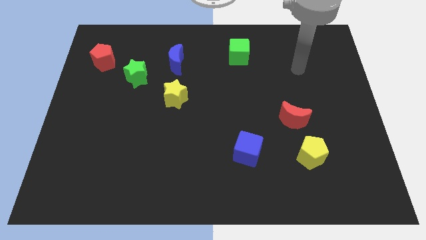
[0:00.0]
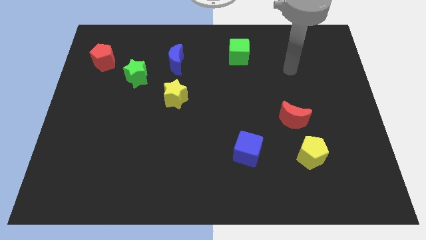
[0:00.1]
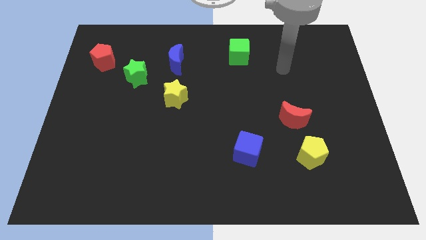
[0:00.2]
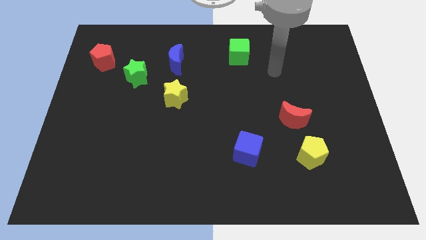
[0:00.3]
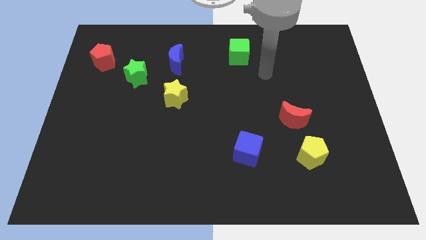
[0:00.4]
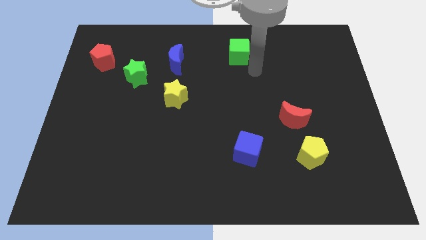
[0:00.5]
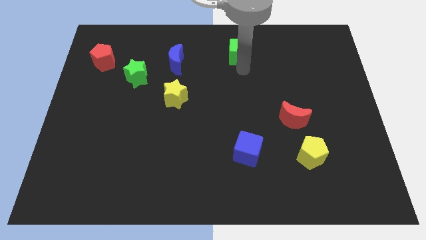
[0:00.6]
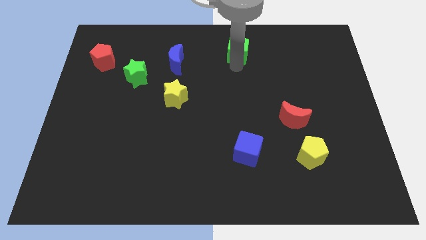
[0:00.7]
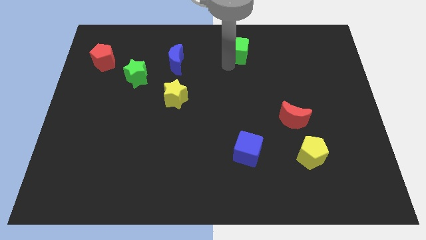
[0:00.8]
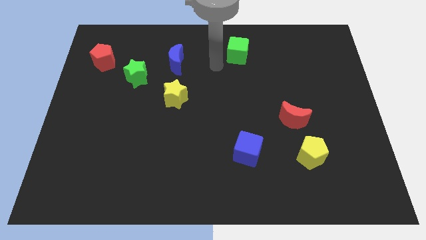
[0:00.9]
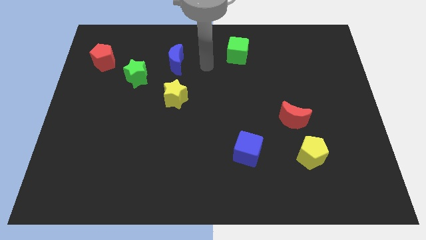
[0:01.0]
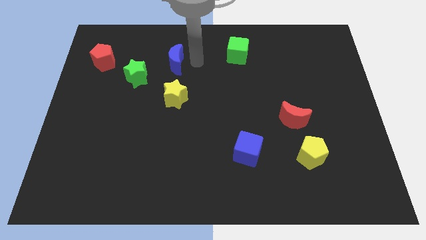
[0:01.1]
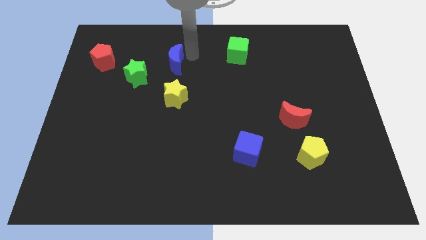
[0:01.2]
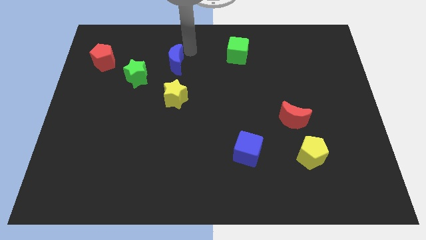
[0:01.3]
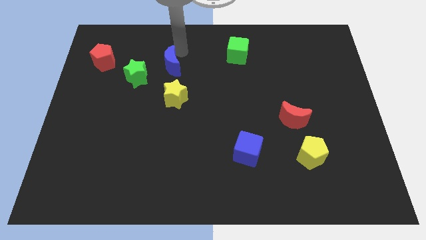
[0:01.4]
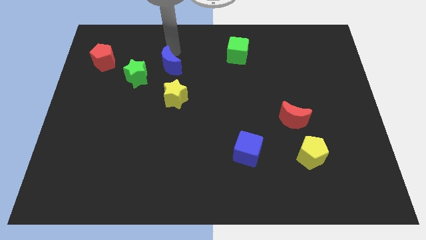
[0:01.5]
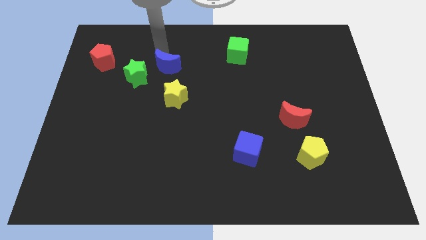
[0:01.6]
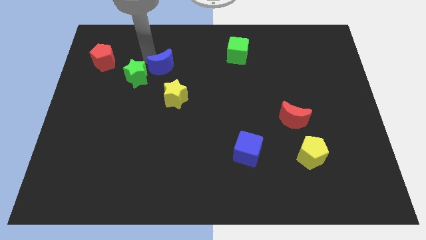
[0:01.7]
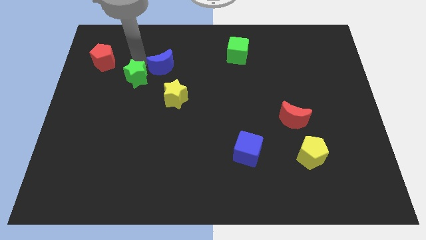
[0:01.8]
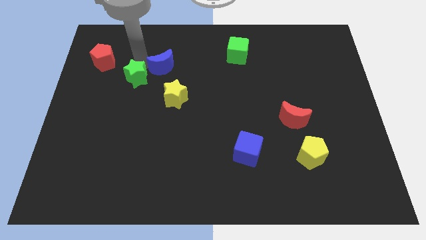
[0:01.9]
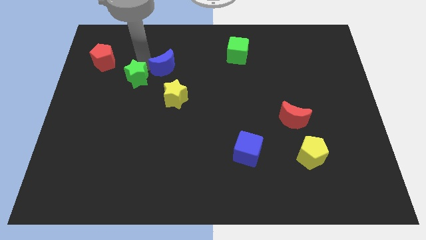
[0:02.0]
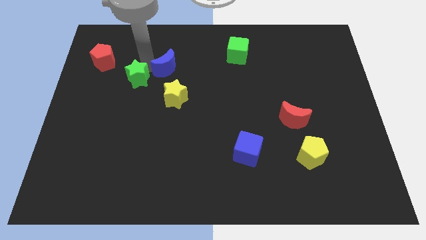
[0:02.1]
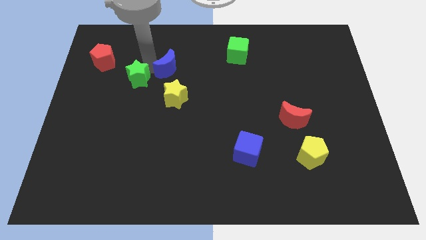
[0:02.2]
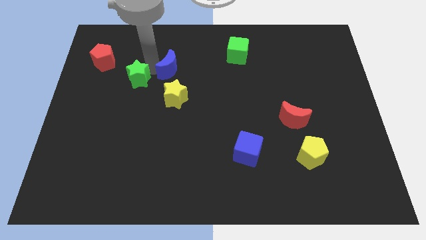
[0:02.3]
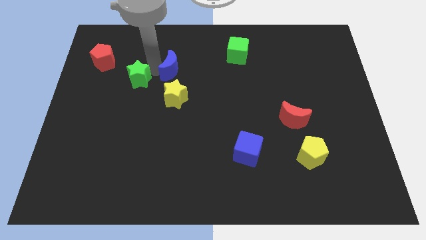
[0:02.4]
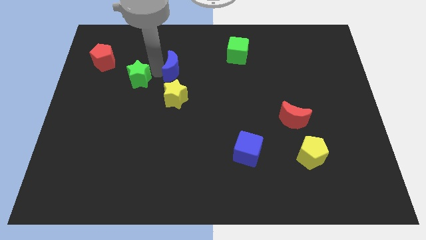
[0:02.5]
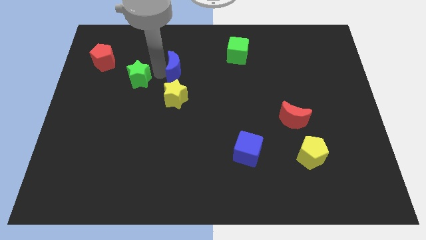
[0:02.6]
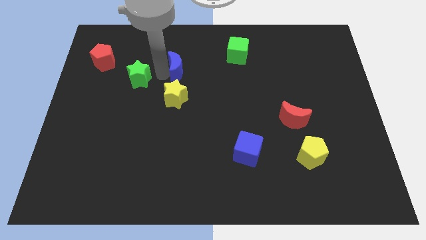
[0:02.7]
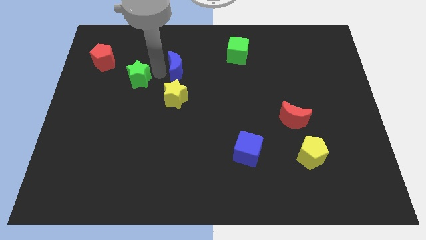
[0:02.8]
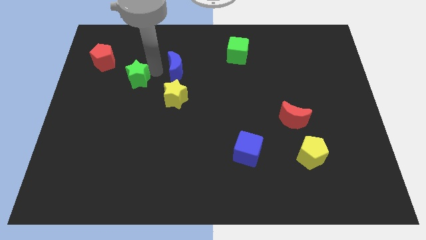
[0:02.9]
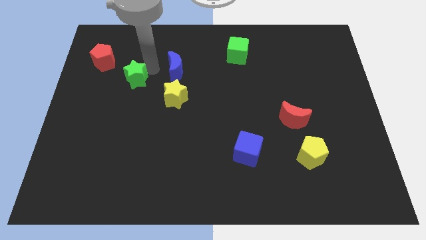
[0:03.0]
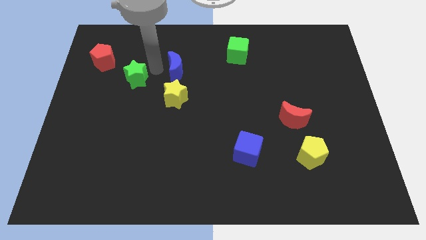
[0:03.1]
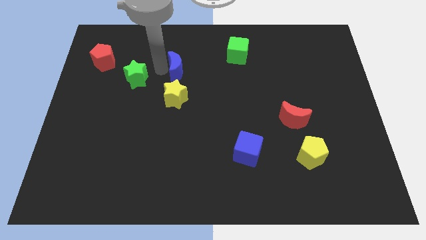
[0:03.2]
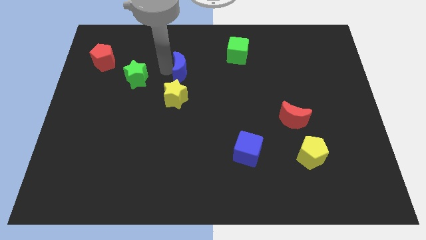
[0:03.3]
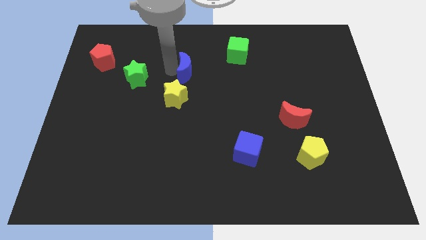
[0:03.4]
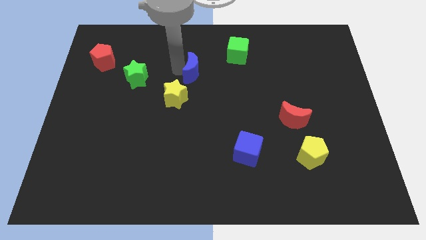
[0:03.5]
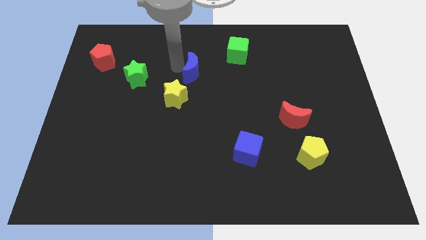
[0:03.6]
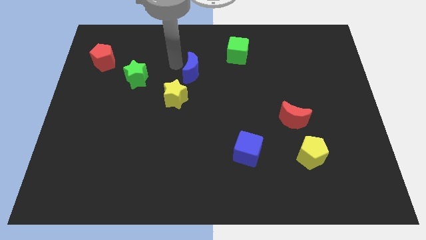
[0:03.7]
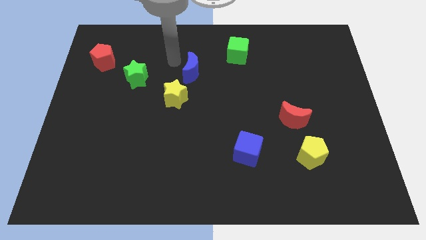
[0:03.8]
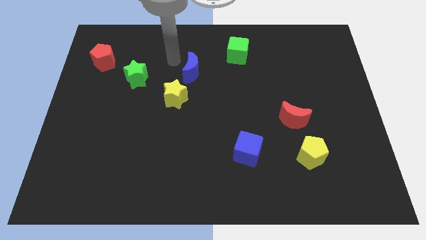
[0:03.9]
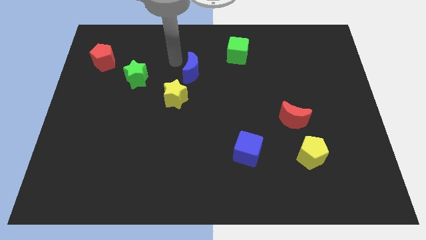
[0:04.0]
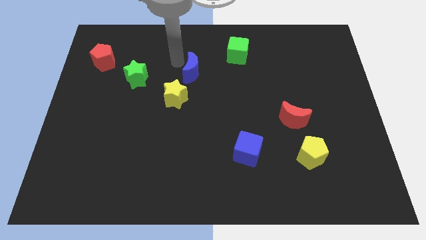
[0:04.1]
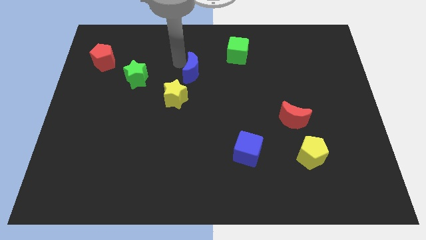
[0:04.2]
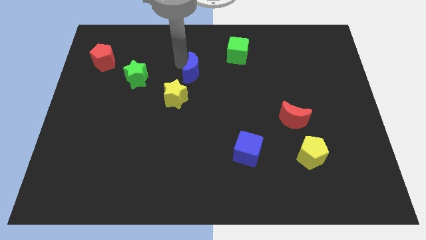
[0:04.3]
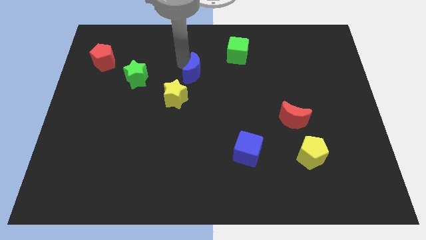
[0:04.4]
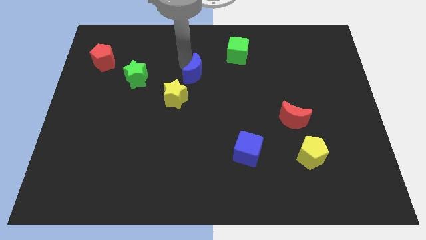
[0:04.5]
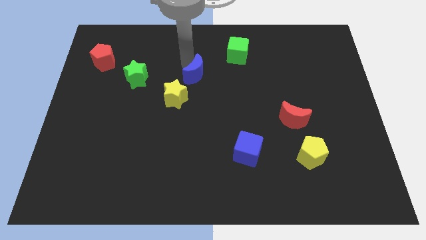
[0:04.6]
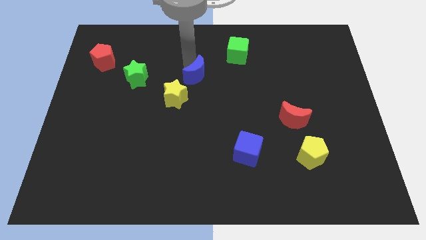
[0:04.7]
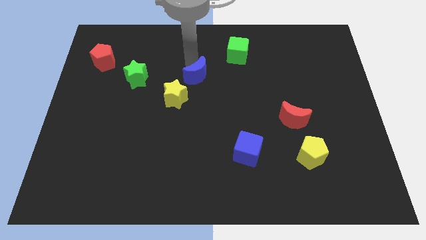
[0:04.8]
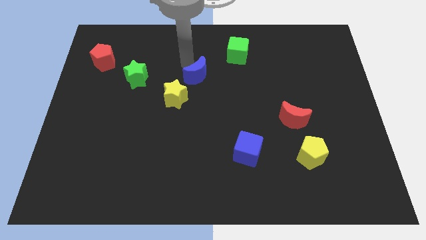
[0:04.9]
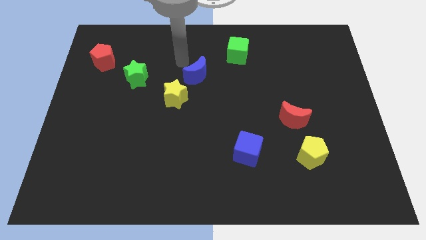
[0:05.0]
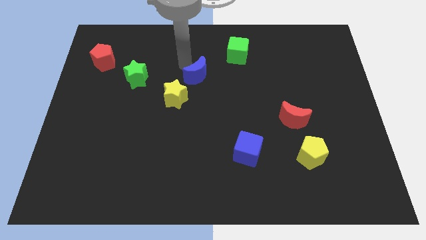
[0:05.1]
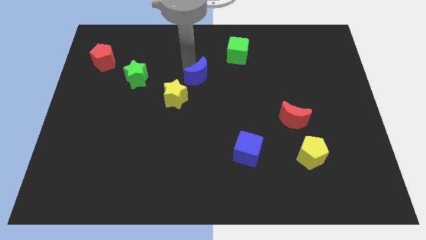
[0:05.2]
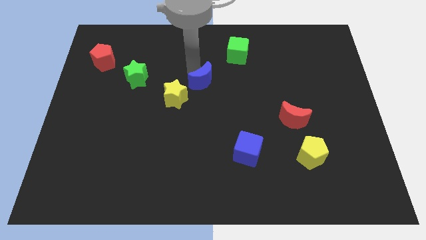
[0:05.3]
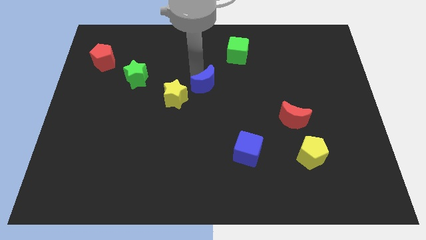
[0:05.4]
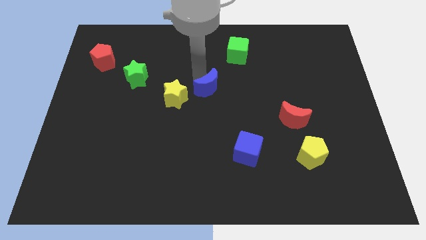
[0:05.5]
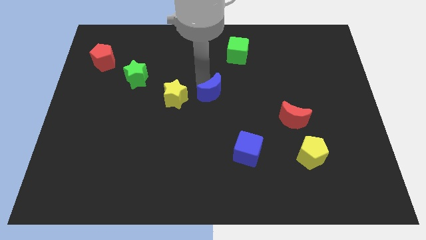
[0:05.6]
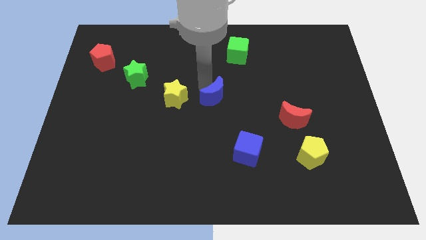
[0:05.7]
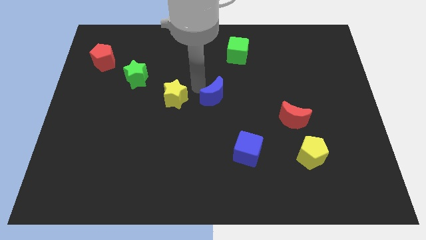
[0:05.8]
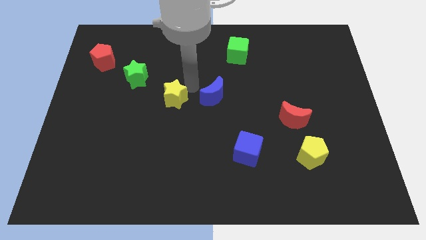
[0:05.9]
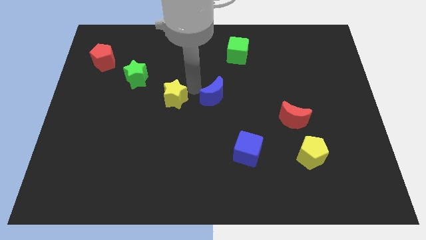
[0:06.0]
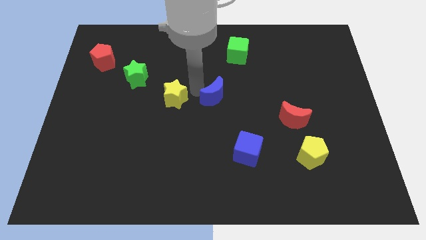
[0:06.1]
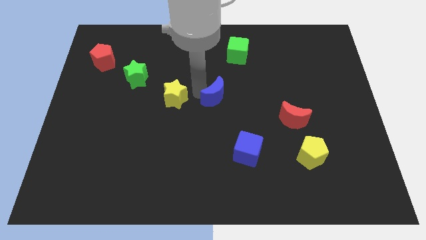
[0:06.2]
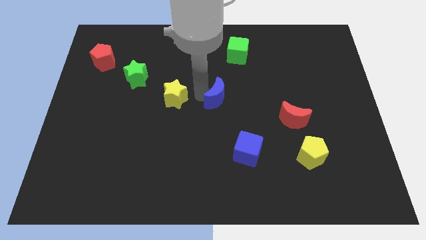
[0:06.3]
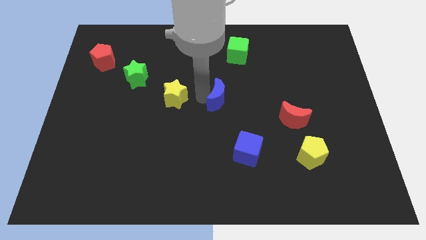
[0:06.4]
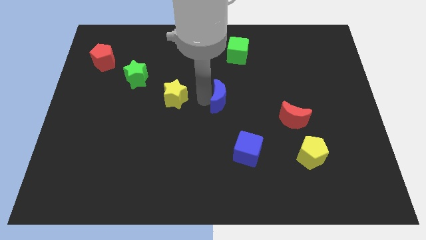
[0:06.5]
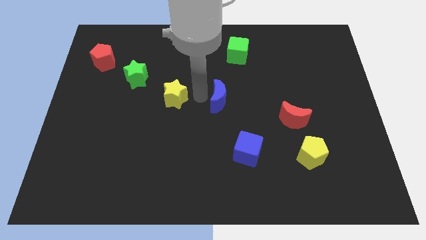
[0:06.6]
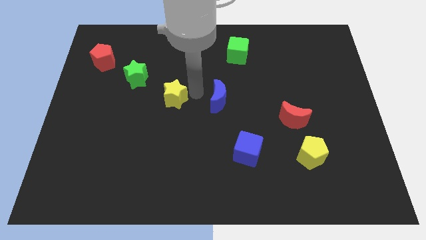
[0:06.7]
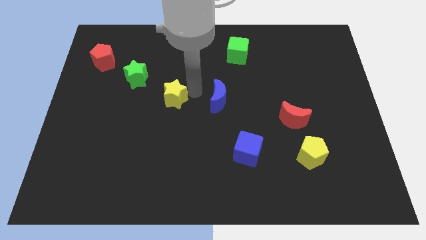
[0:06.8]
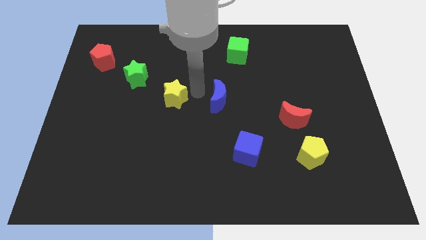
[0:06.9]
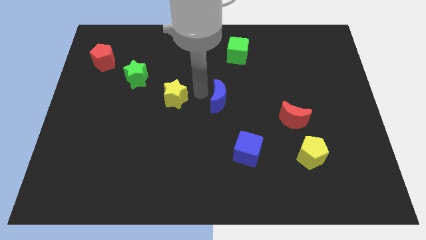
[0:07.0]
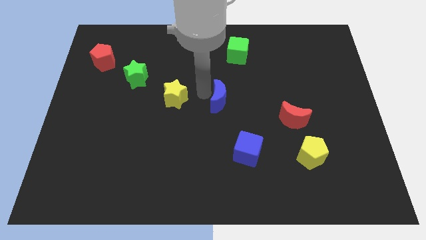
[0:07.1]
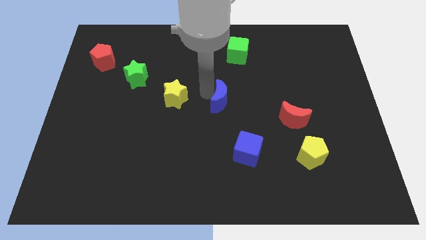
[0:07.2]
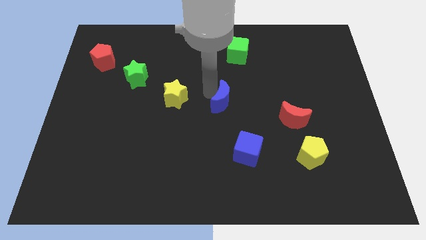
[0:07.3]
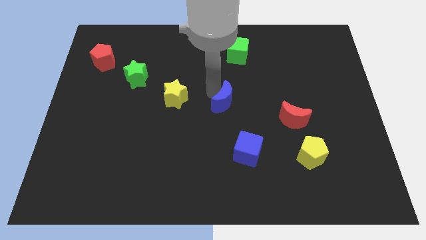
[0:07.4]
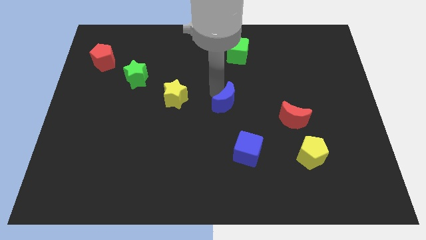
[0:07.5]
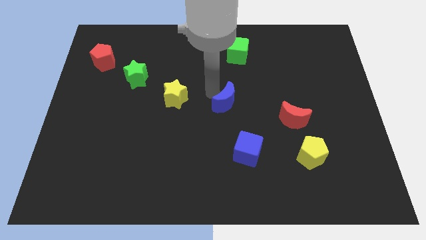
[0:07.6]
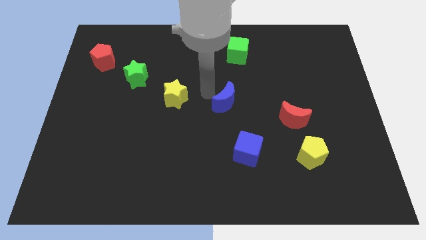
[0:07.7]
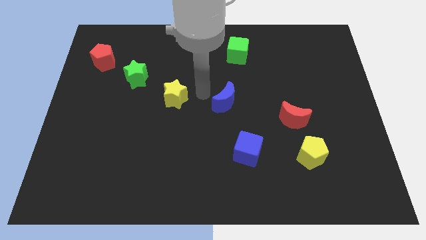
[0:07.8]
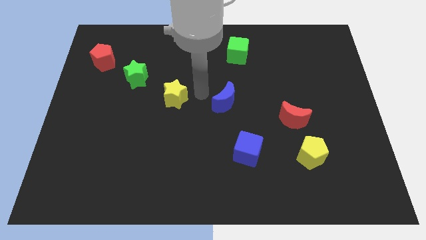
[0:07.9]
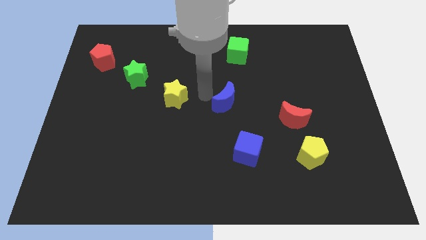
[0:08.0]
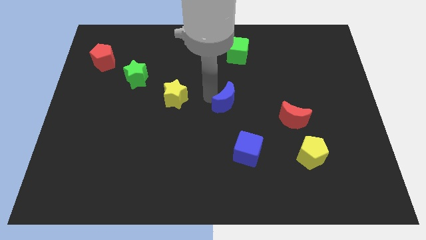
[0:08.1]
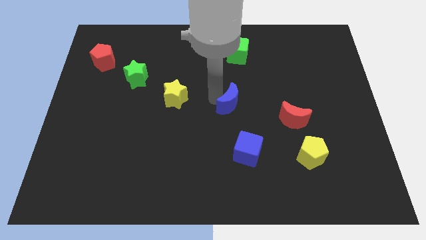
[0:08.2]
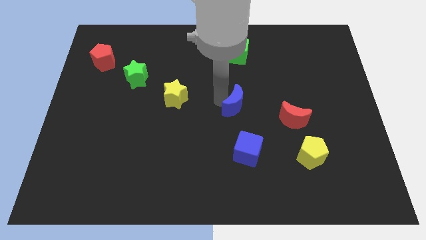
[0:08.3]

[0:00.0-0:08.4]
slide the blue moon down and right diagonally
